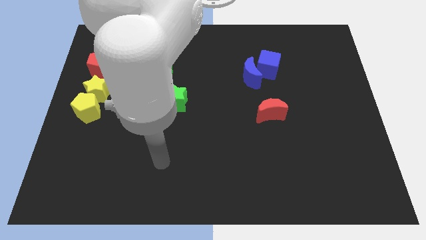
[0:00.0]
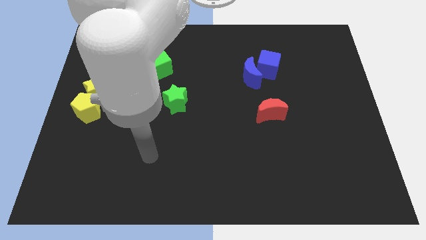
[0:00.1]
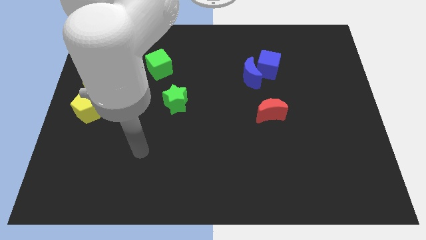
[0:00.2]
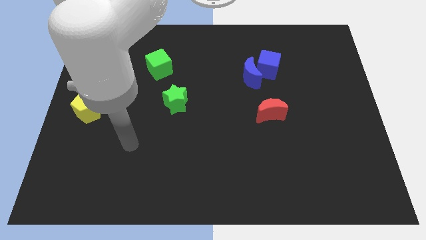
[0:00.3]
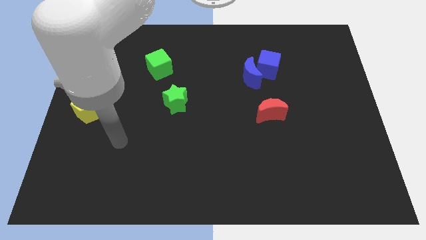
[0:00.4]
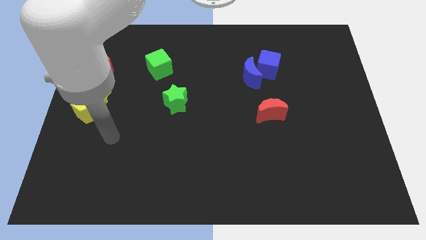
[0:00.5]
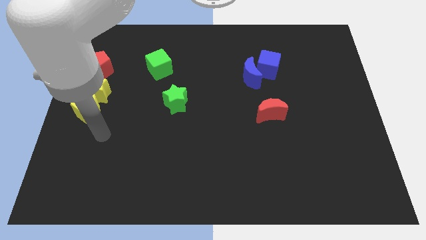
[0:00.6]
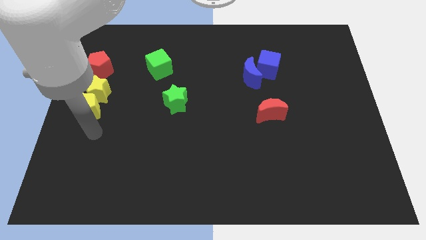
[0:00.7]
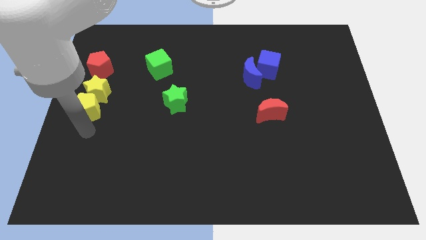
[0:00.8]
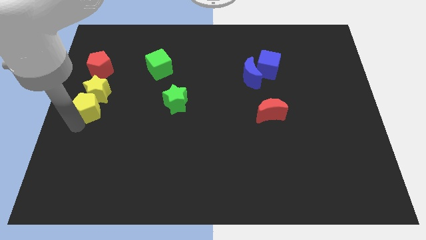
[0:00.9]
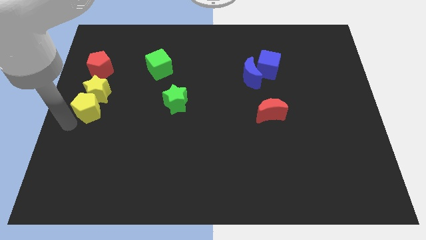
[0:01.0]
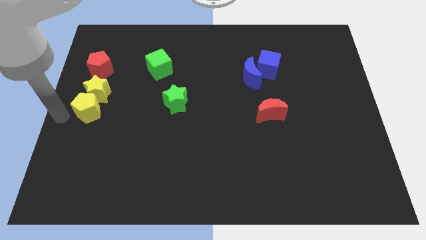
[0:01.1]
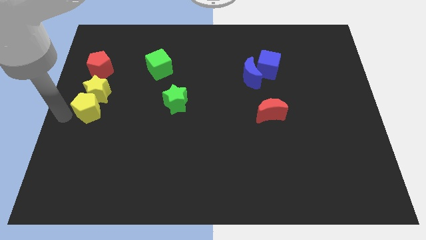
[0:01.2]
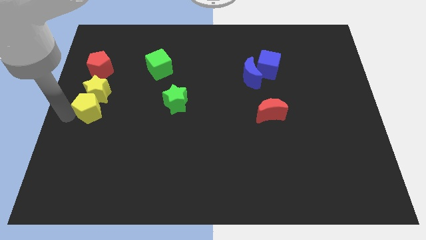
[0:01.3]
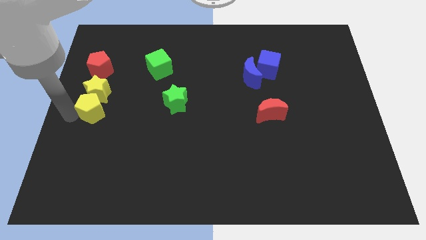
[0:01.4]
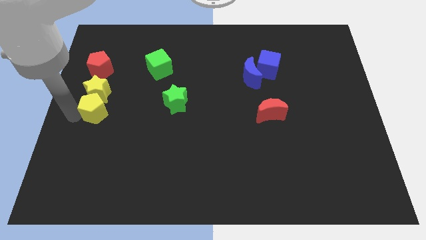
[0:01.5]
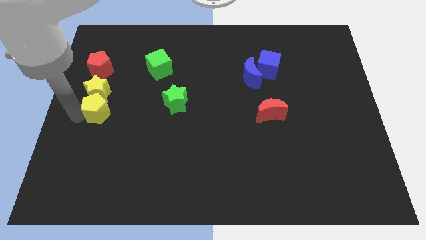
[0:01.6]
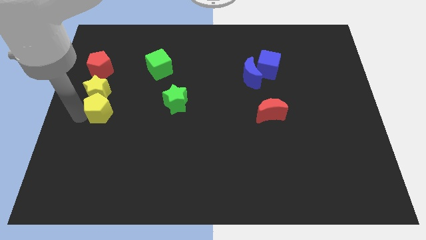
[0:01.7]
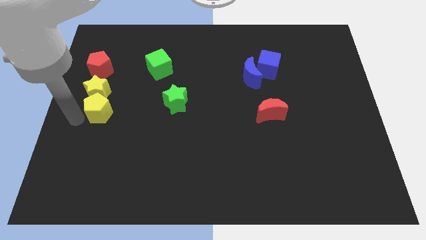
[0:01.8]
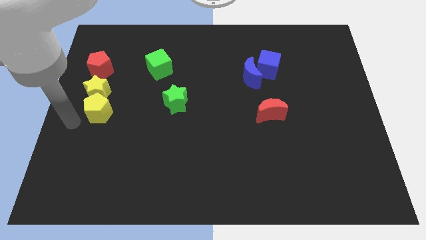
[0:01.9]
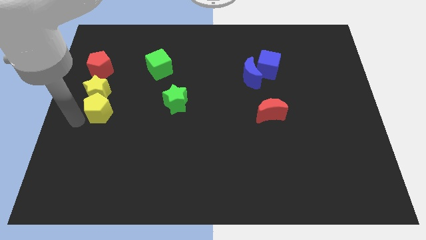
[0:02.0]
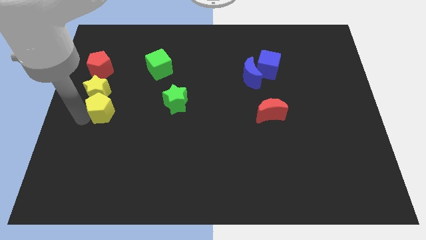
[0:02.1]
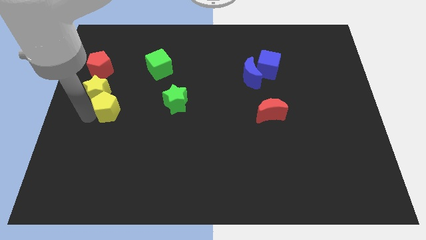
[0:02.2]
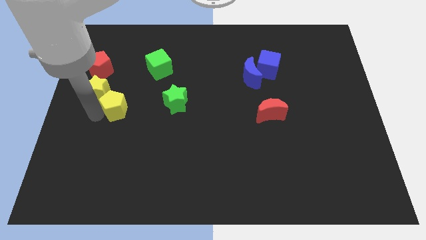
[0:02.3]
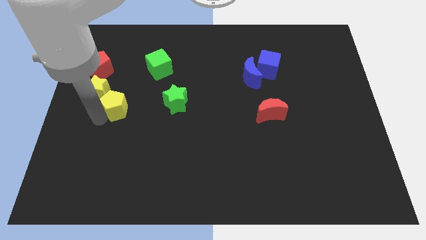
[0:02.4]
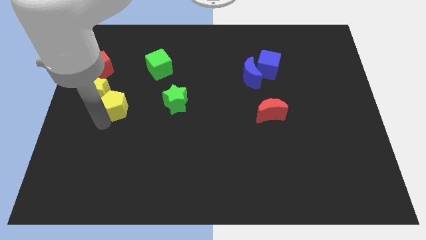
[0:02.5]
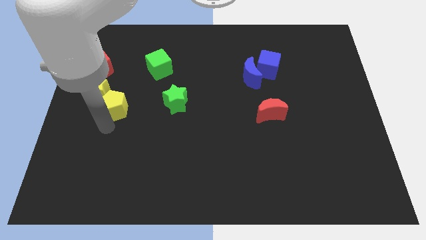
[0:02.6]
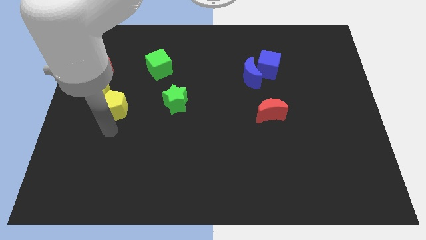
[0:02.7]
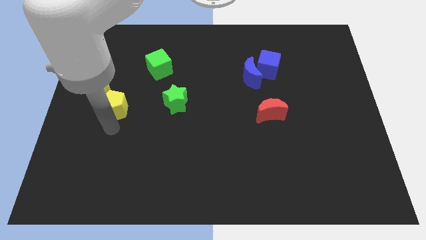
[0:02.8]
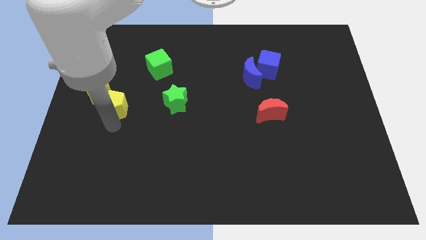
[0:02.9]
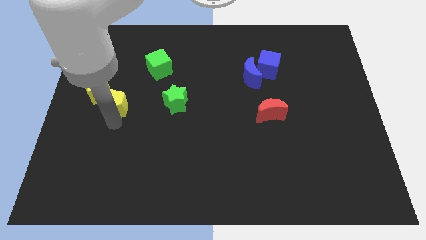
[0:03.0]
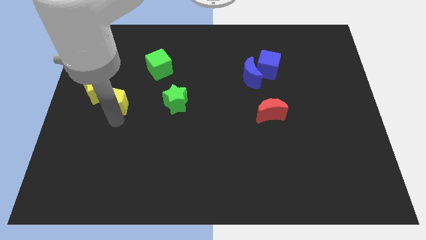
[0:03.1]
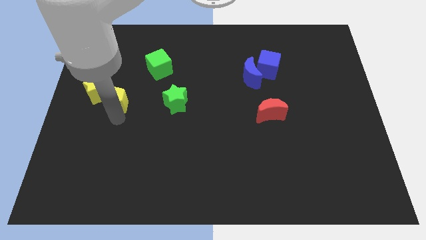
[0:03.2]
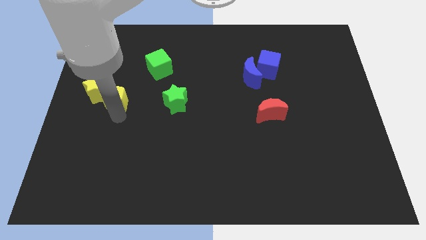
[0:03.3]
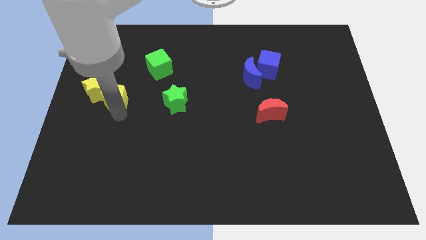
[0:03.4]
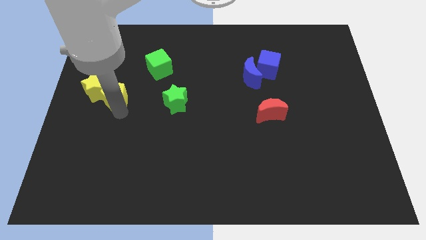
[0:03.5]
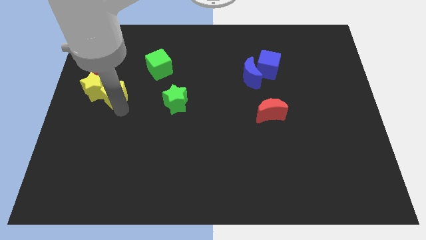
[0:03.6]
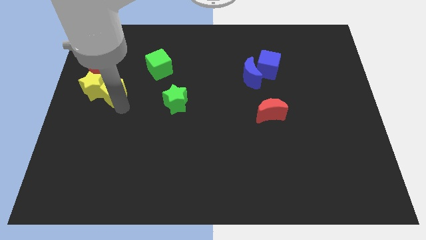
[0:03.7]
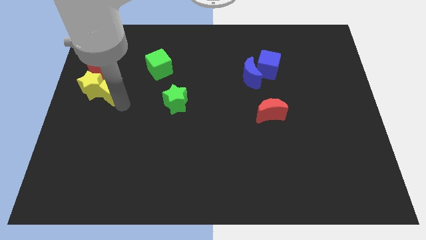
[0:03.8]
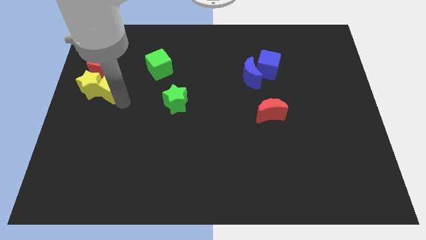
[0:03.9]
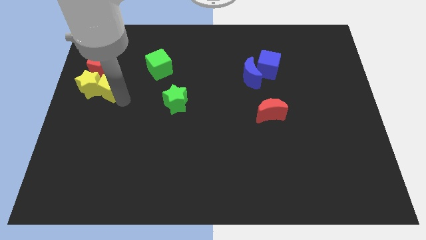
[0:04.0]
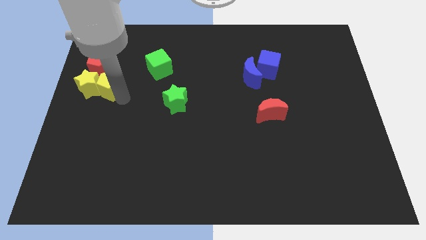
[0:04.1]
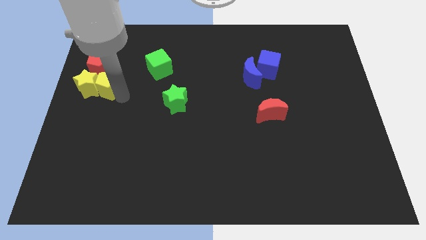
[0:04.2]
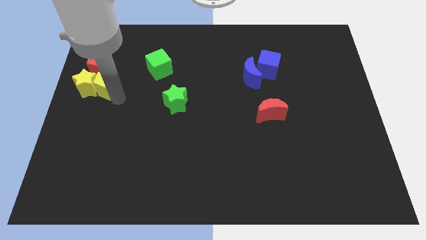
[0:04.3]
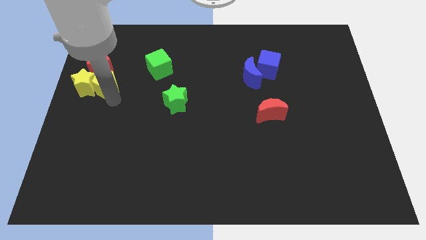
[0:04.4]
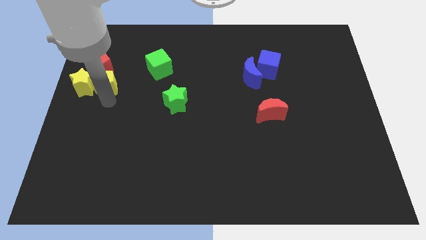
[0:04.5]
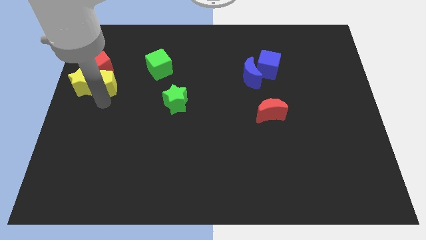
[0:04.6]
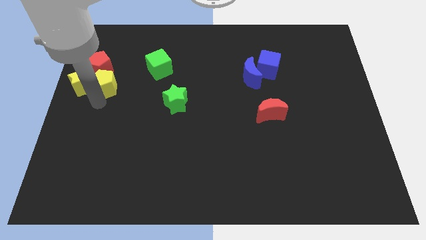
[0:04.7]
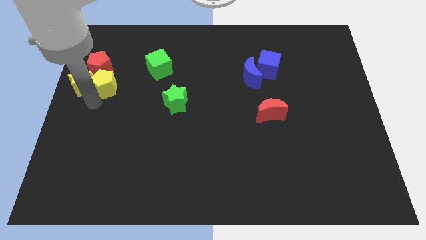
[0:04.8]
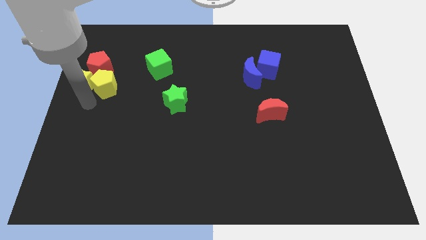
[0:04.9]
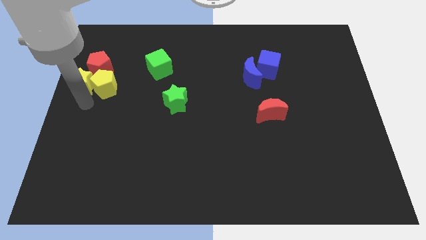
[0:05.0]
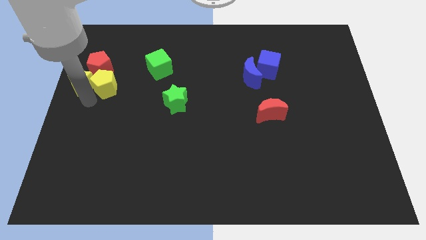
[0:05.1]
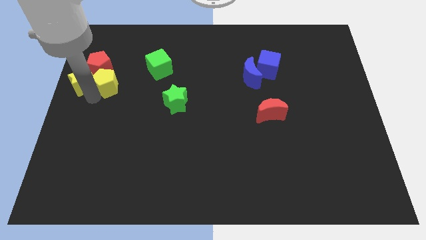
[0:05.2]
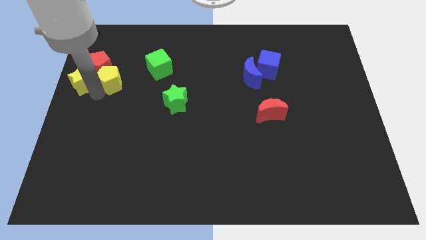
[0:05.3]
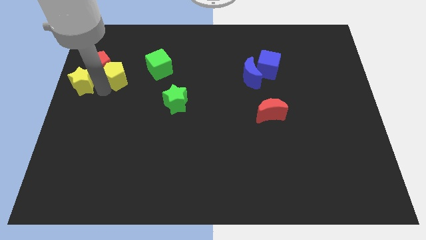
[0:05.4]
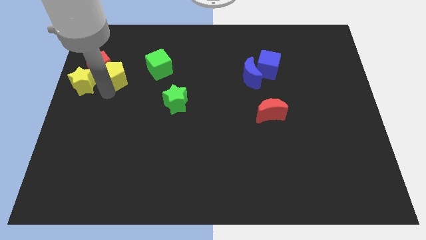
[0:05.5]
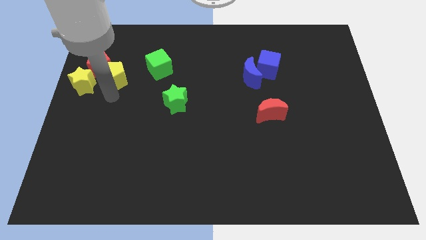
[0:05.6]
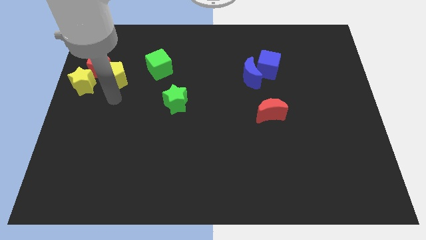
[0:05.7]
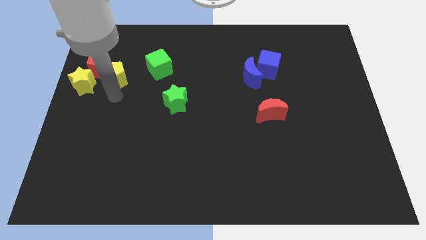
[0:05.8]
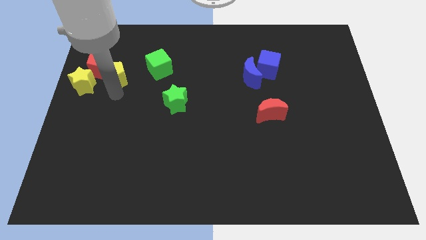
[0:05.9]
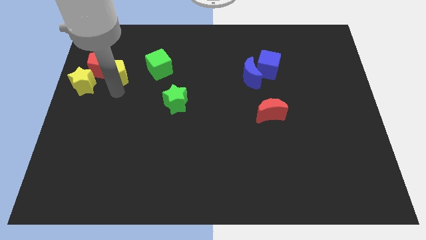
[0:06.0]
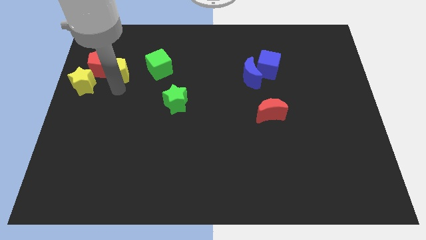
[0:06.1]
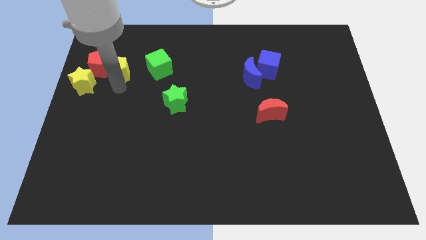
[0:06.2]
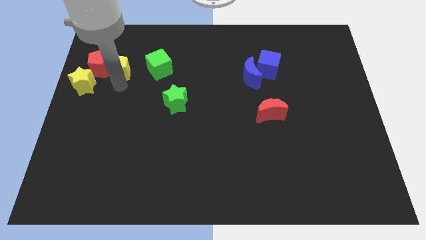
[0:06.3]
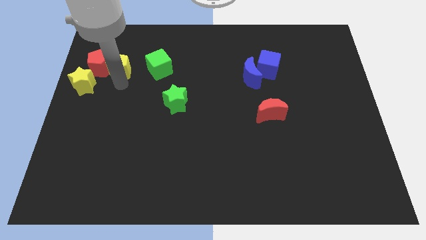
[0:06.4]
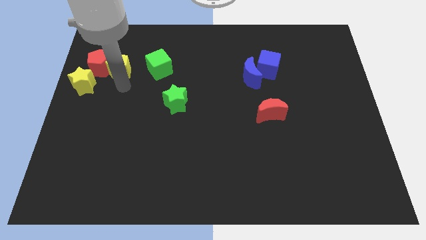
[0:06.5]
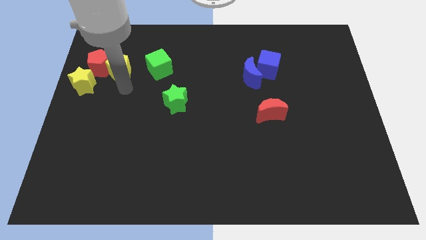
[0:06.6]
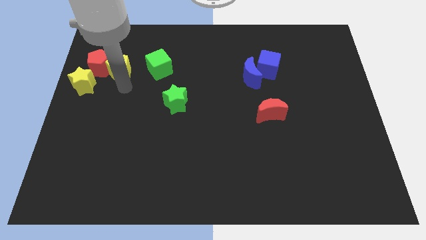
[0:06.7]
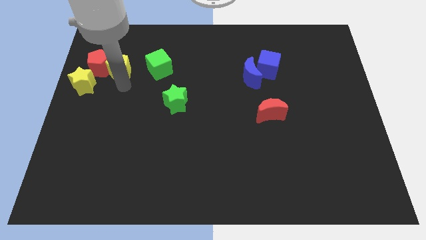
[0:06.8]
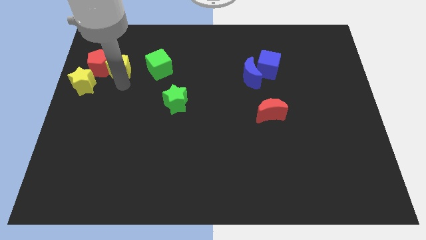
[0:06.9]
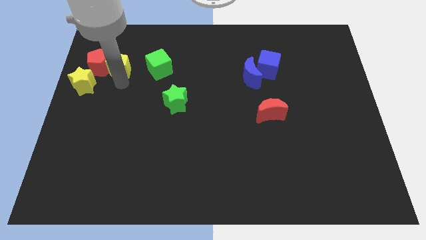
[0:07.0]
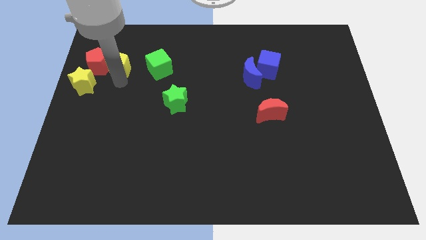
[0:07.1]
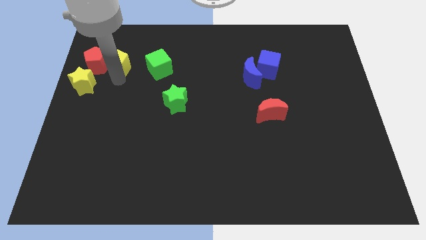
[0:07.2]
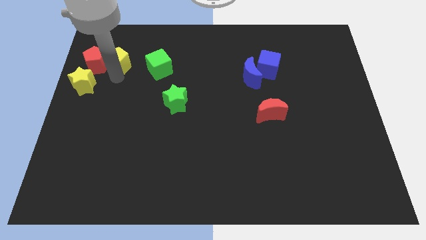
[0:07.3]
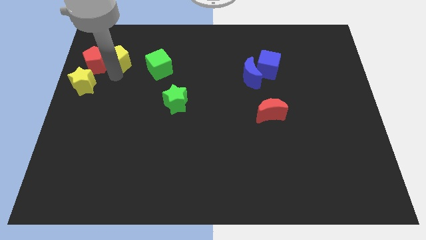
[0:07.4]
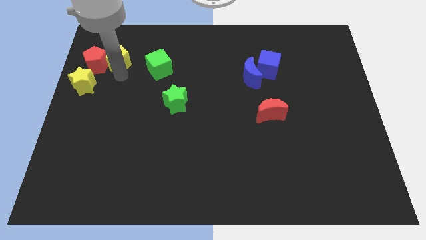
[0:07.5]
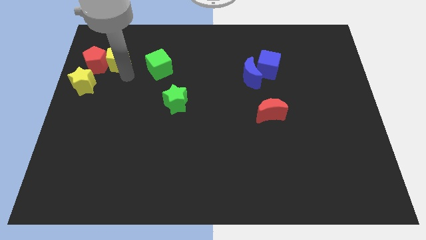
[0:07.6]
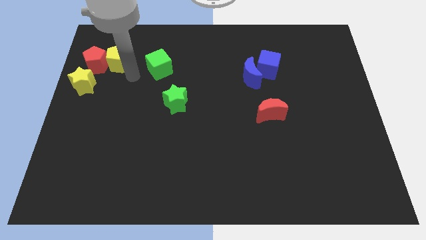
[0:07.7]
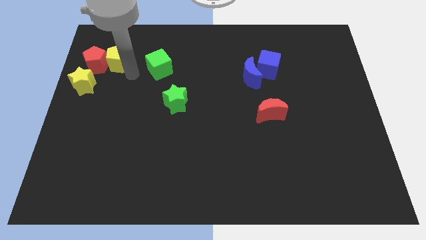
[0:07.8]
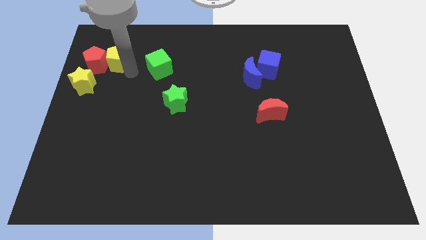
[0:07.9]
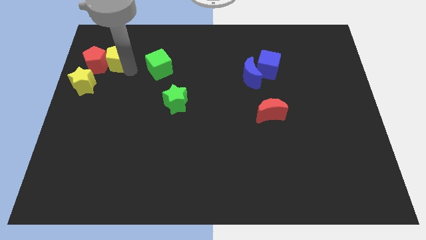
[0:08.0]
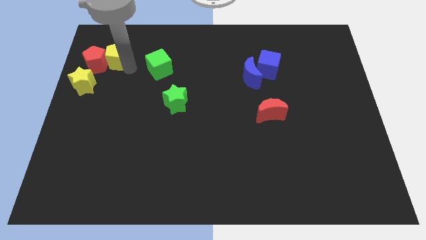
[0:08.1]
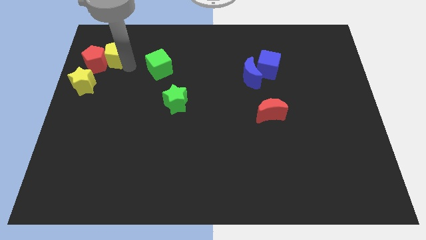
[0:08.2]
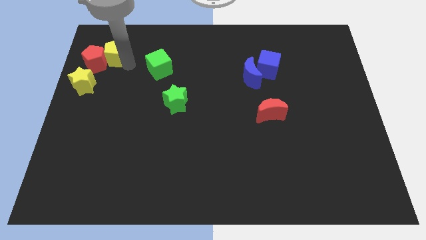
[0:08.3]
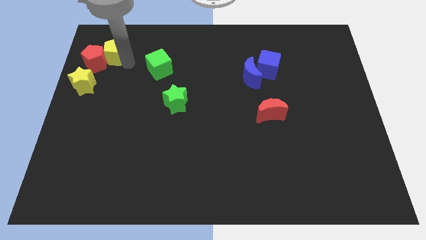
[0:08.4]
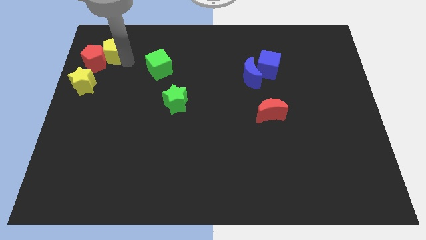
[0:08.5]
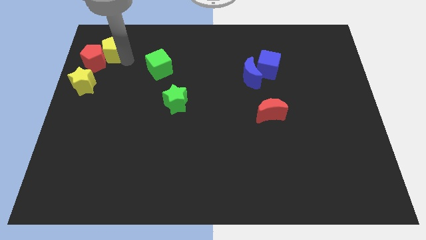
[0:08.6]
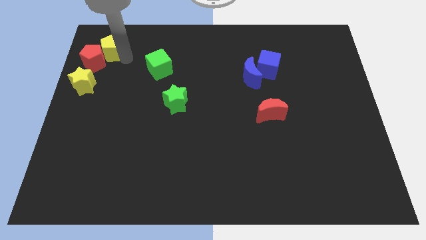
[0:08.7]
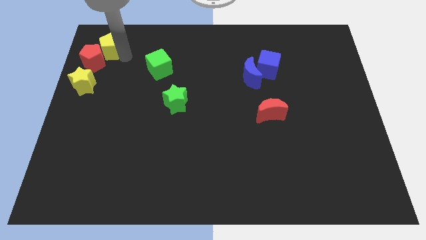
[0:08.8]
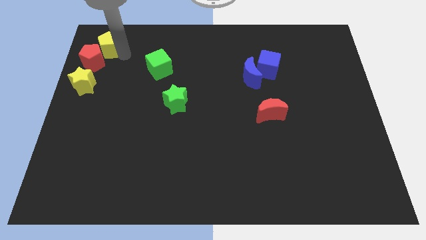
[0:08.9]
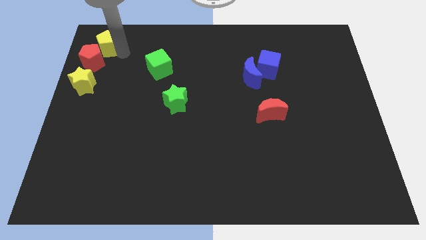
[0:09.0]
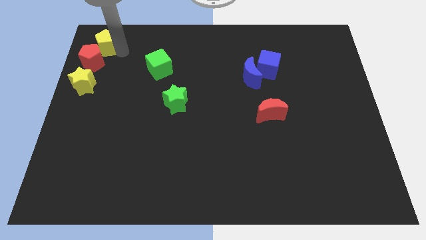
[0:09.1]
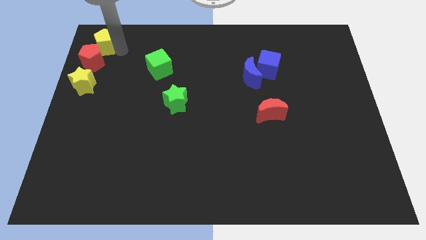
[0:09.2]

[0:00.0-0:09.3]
move the yellow pentagon to the upper left corner
